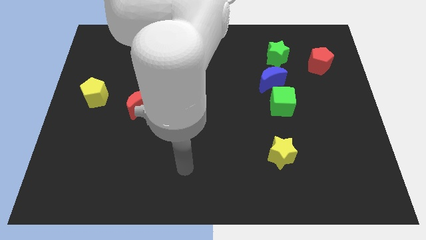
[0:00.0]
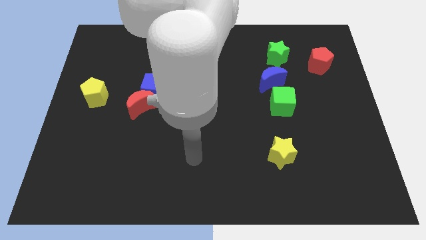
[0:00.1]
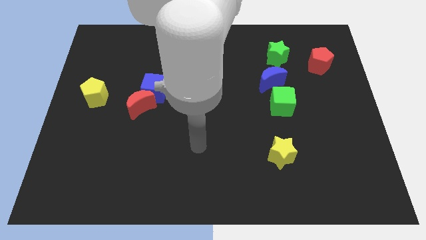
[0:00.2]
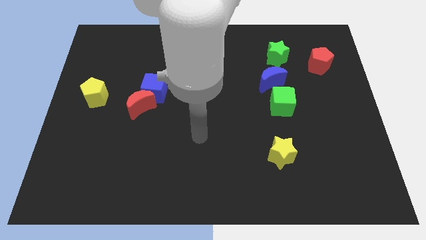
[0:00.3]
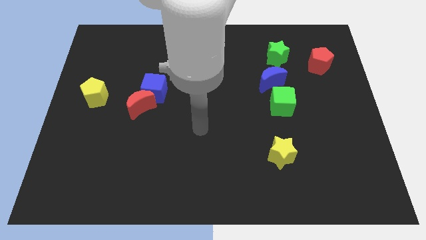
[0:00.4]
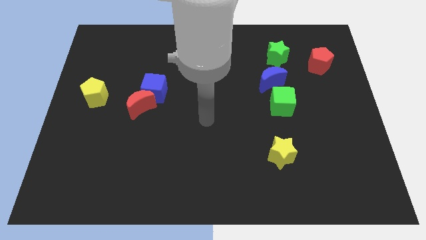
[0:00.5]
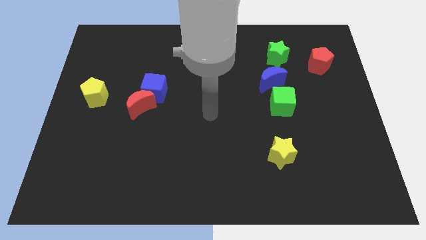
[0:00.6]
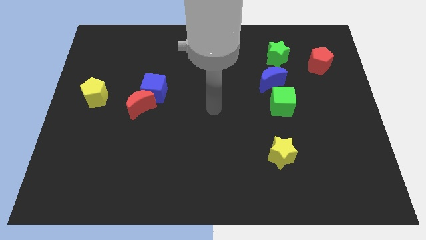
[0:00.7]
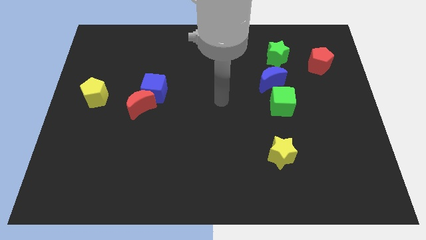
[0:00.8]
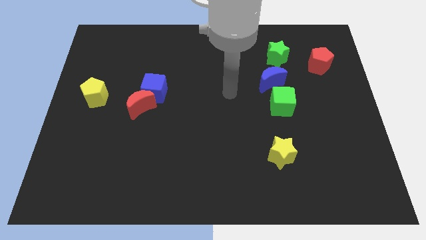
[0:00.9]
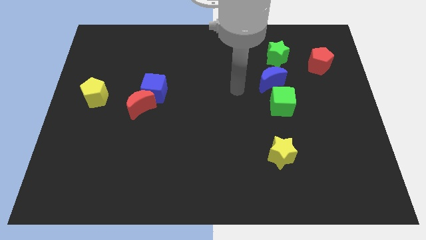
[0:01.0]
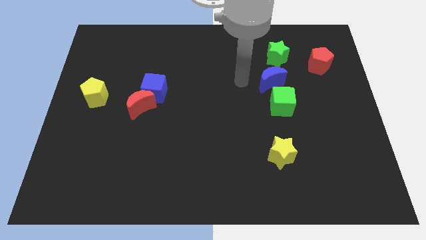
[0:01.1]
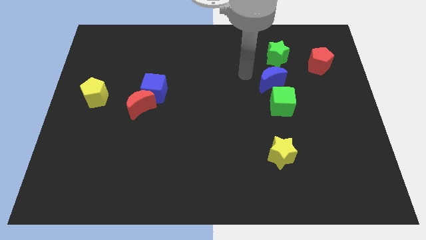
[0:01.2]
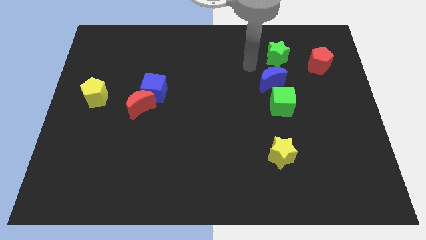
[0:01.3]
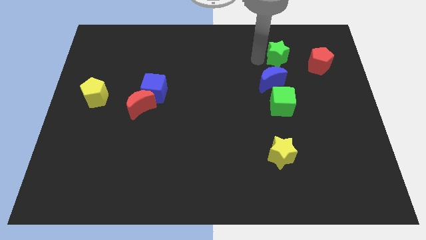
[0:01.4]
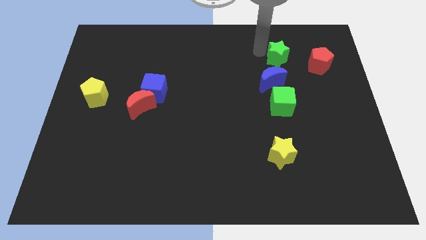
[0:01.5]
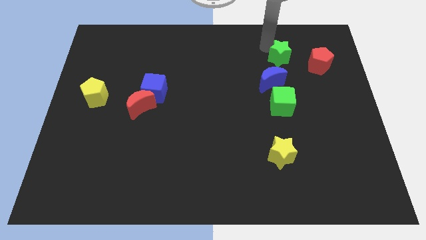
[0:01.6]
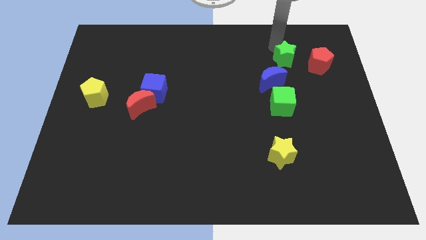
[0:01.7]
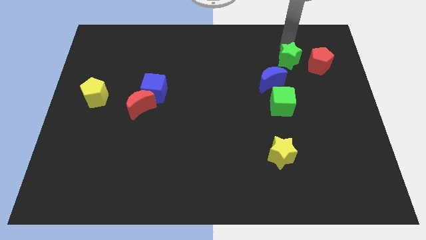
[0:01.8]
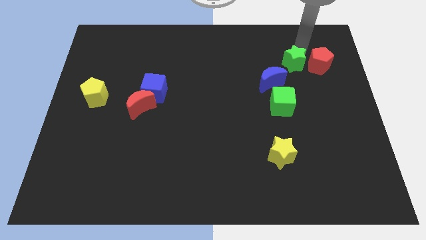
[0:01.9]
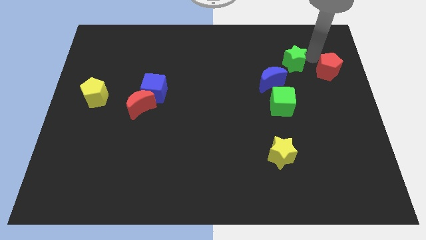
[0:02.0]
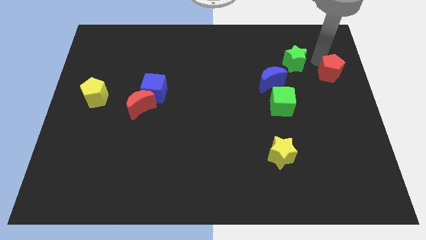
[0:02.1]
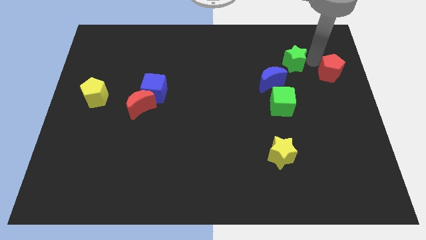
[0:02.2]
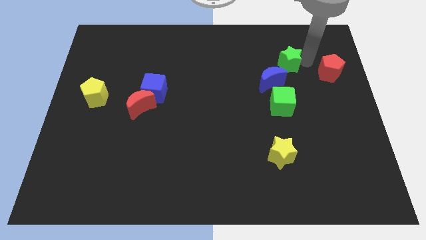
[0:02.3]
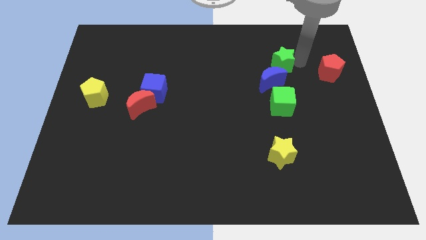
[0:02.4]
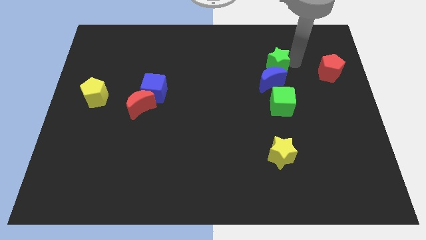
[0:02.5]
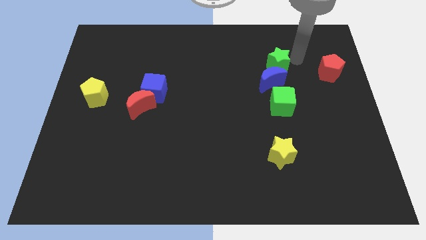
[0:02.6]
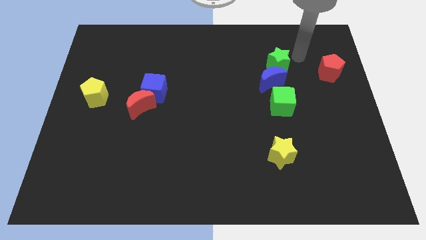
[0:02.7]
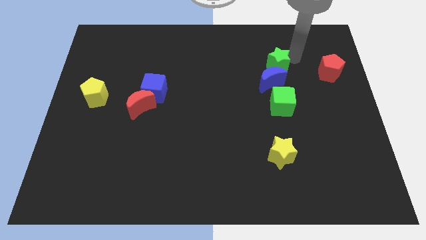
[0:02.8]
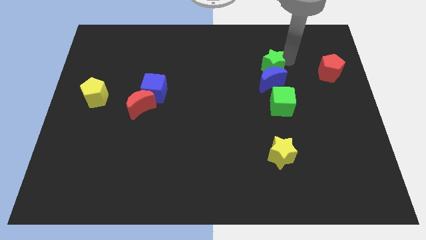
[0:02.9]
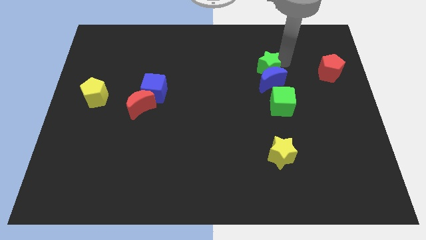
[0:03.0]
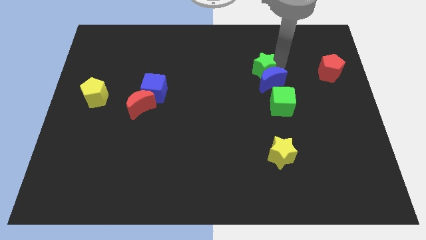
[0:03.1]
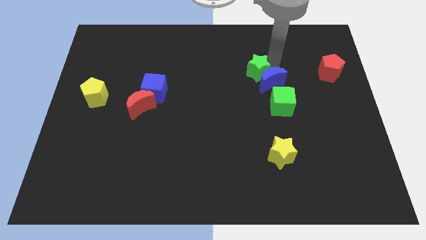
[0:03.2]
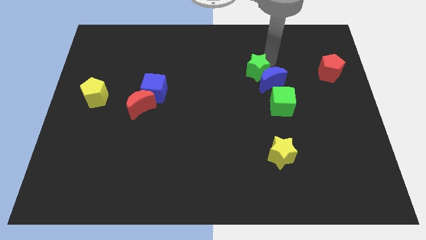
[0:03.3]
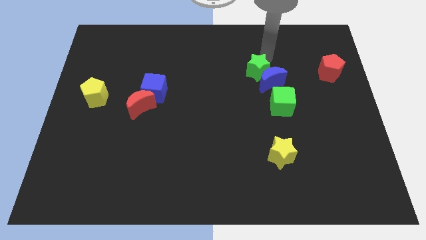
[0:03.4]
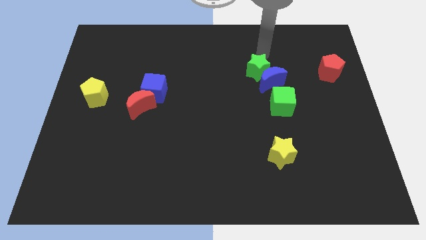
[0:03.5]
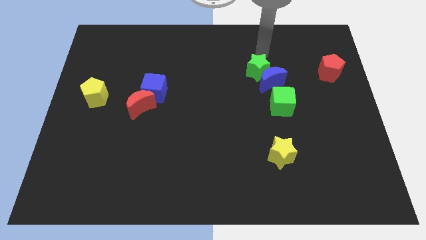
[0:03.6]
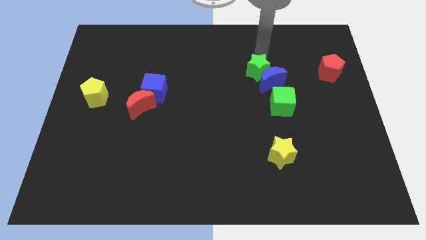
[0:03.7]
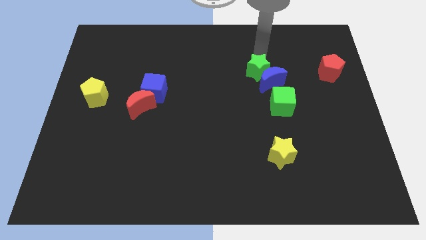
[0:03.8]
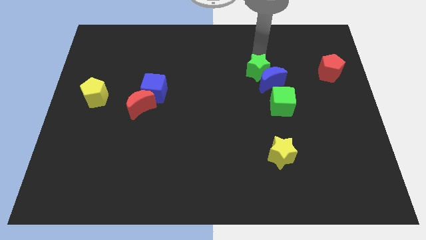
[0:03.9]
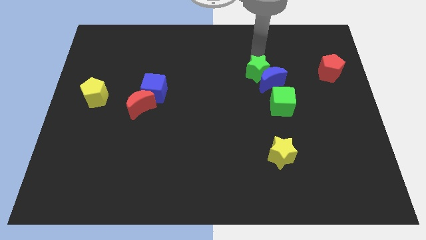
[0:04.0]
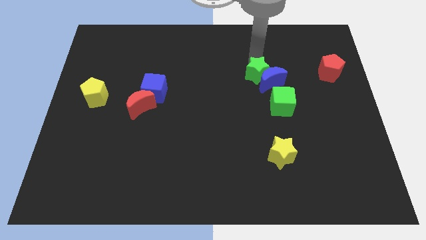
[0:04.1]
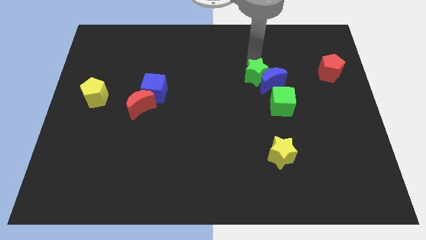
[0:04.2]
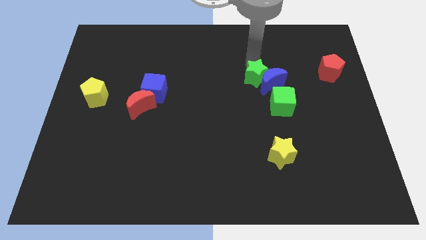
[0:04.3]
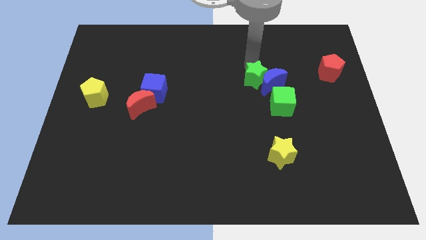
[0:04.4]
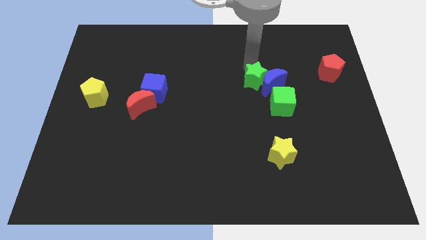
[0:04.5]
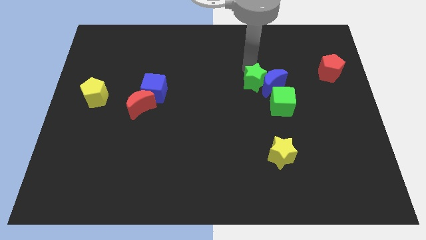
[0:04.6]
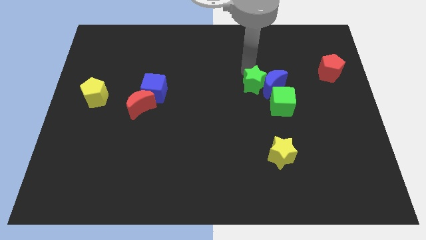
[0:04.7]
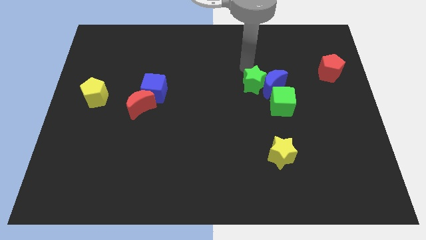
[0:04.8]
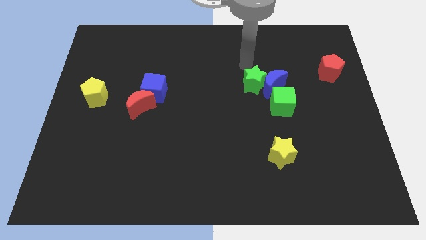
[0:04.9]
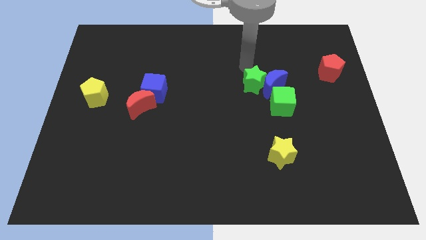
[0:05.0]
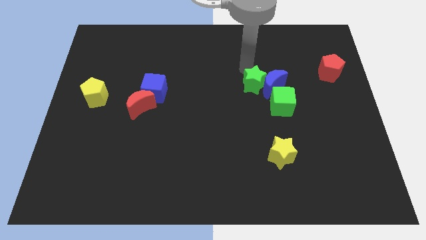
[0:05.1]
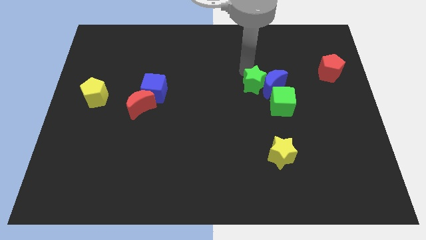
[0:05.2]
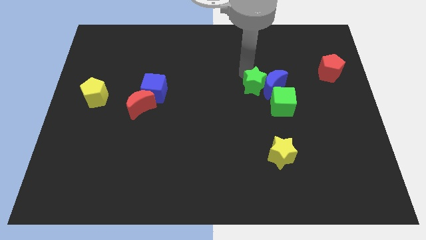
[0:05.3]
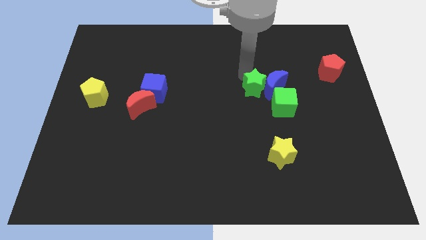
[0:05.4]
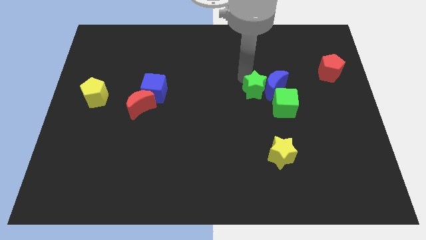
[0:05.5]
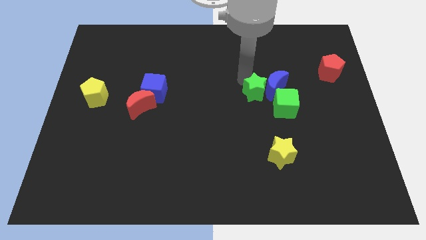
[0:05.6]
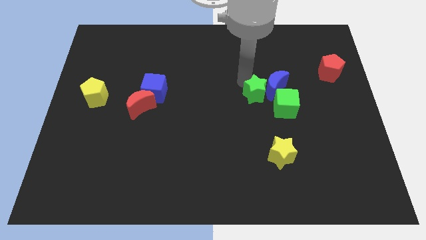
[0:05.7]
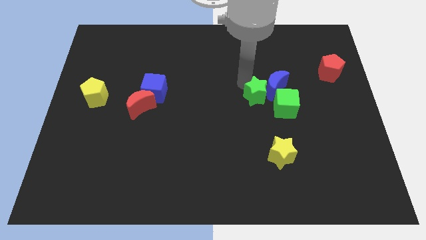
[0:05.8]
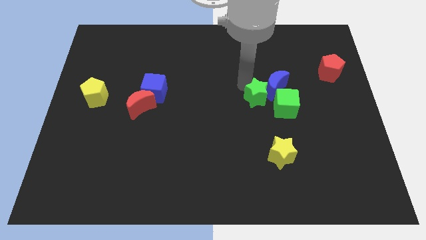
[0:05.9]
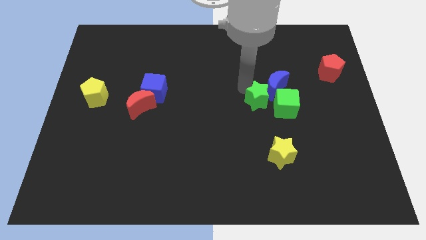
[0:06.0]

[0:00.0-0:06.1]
slide the green star below the blue moon

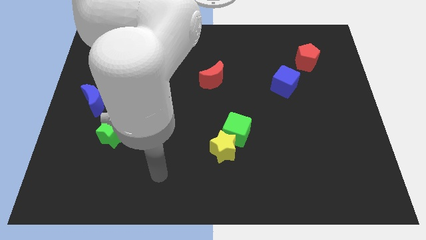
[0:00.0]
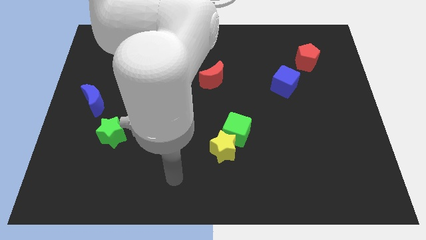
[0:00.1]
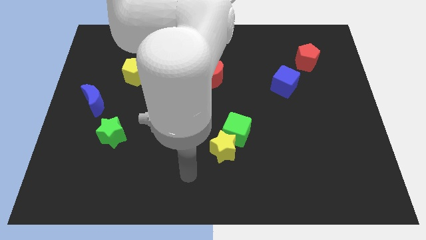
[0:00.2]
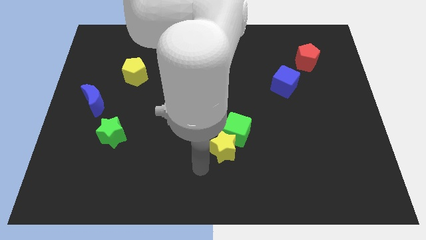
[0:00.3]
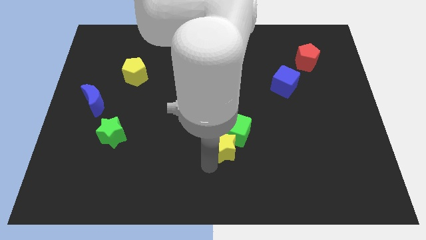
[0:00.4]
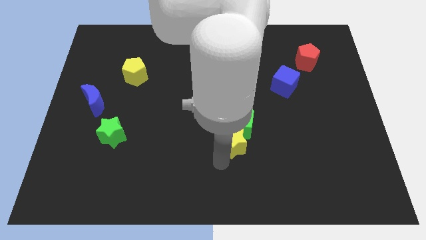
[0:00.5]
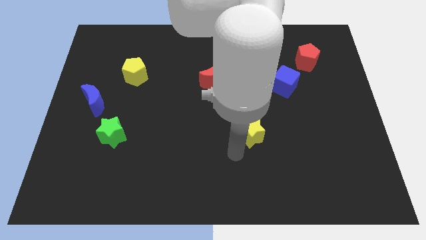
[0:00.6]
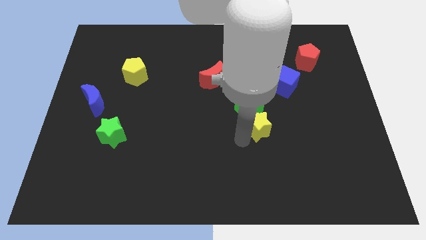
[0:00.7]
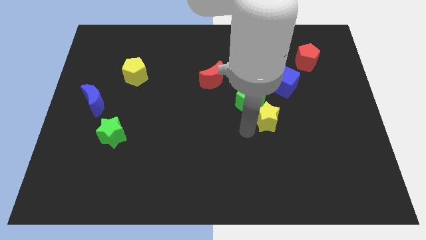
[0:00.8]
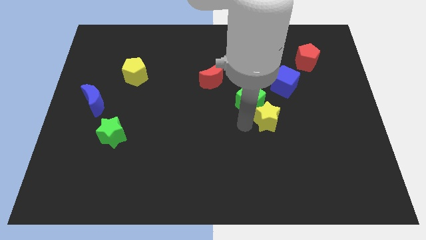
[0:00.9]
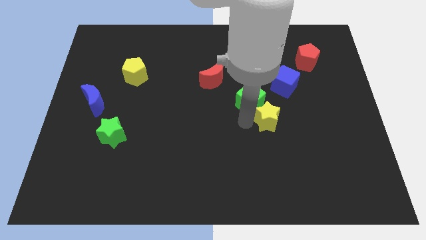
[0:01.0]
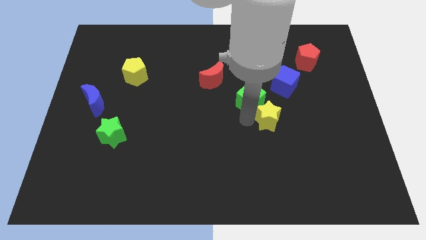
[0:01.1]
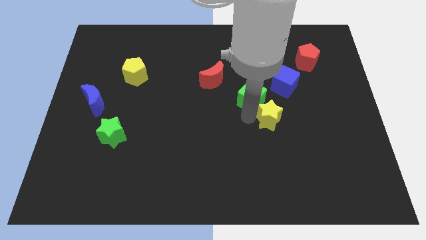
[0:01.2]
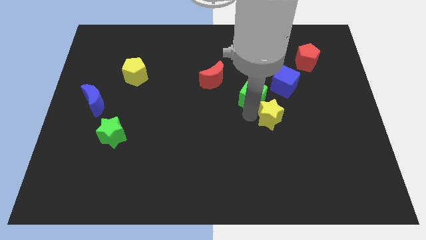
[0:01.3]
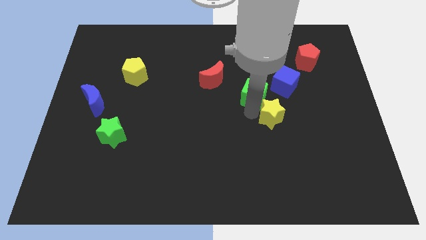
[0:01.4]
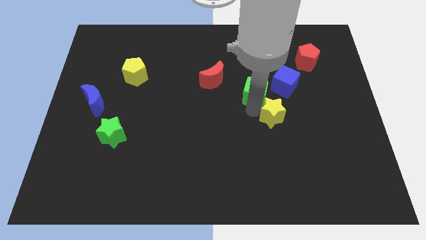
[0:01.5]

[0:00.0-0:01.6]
slide the green cube right of the red moon

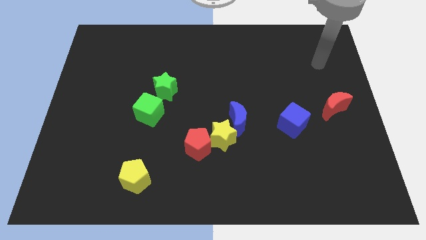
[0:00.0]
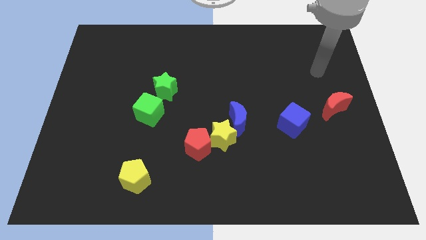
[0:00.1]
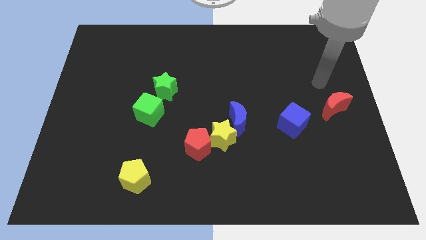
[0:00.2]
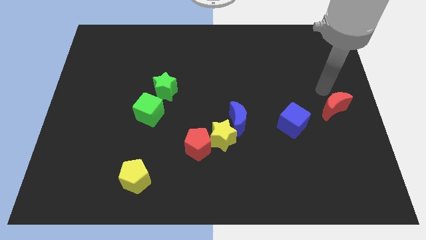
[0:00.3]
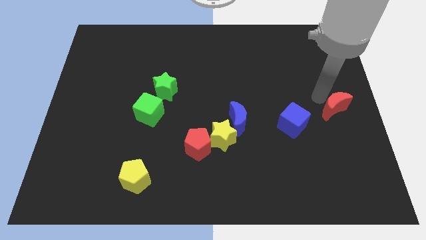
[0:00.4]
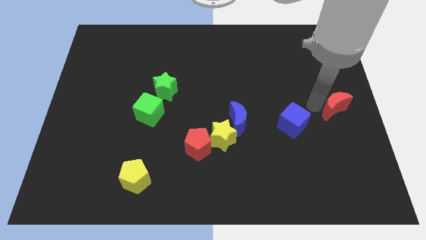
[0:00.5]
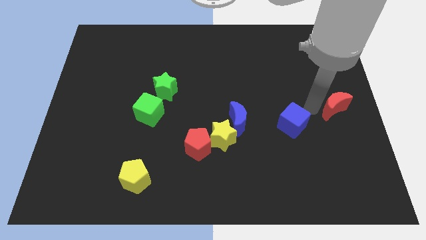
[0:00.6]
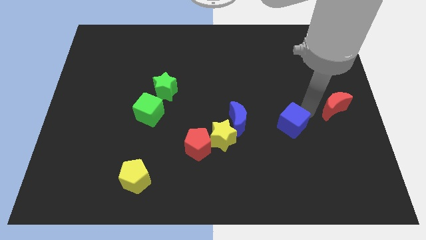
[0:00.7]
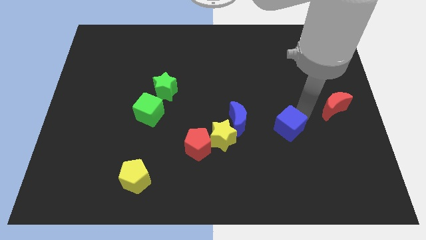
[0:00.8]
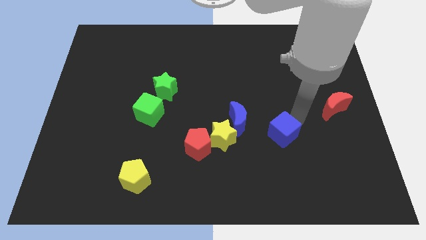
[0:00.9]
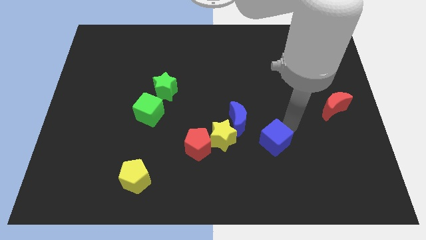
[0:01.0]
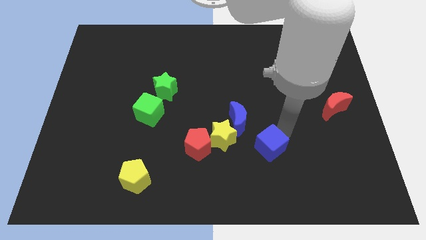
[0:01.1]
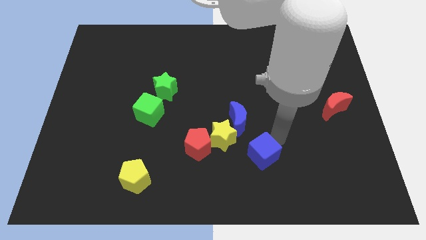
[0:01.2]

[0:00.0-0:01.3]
slide the blue cube below the blue moon
